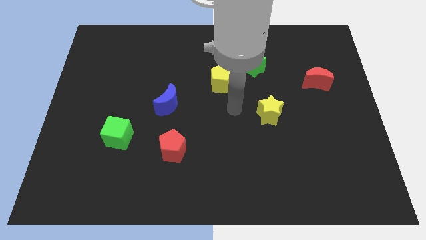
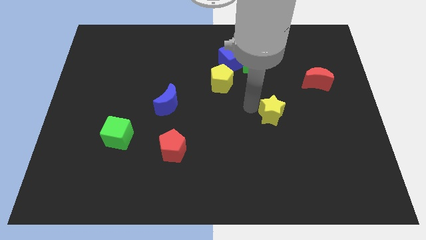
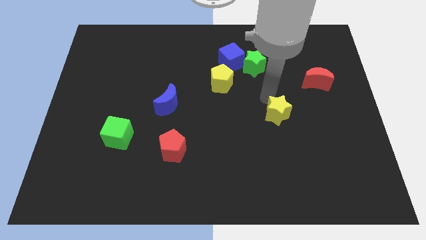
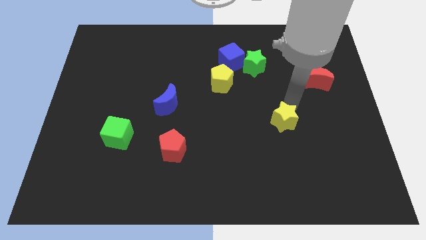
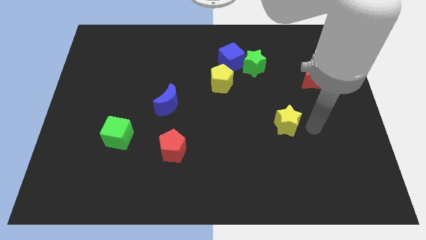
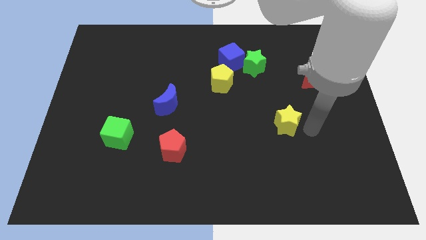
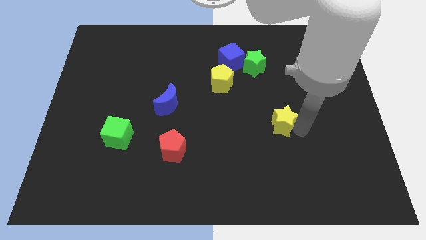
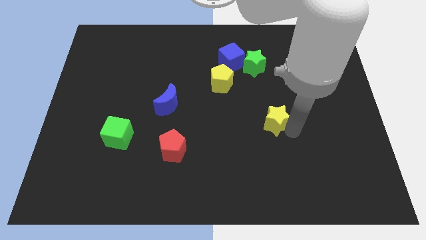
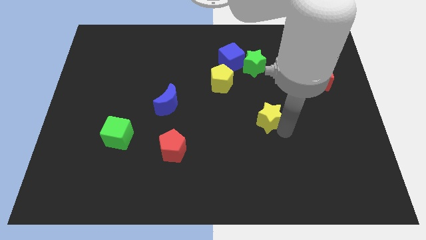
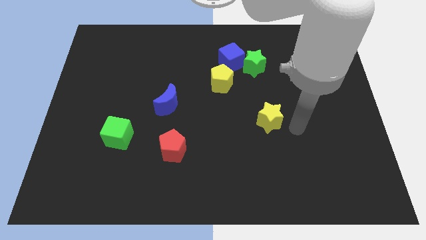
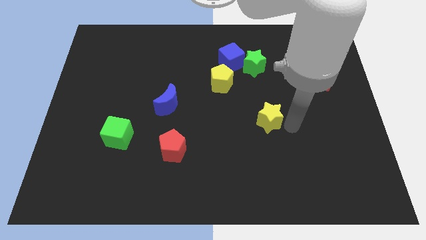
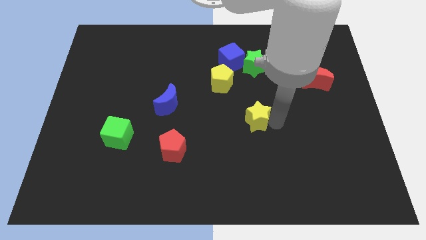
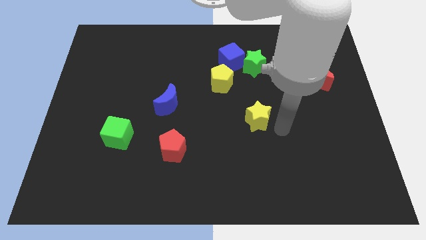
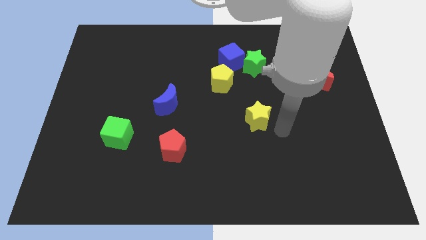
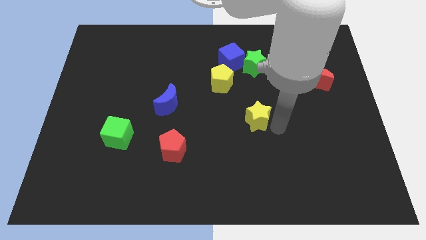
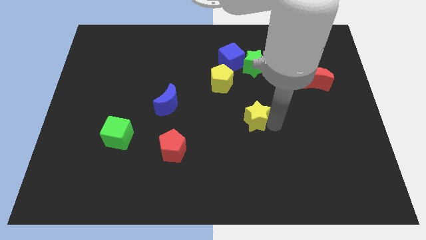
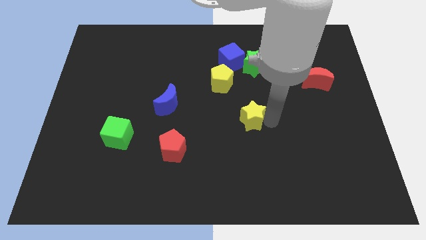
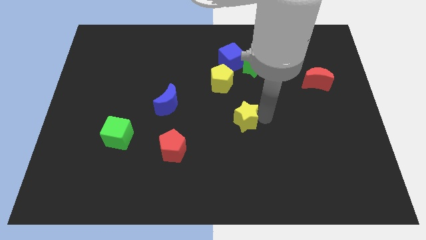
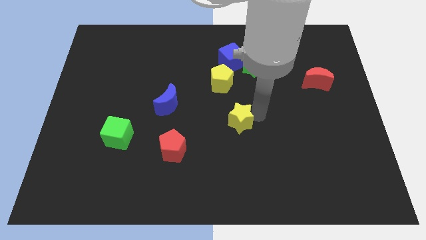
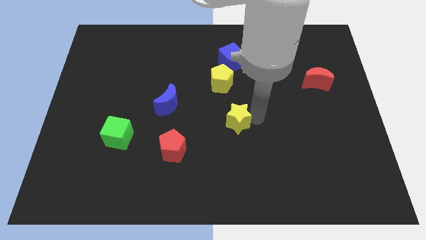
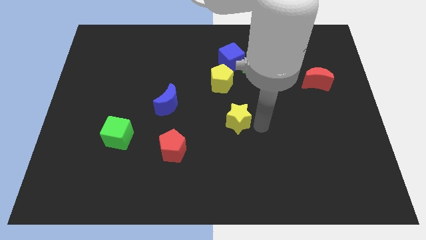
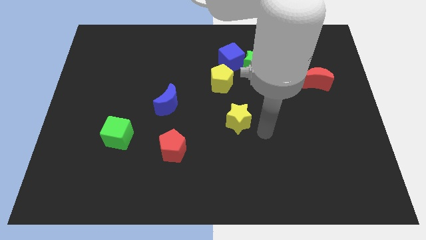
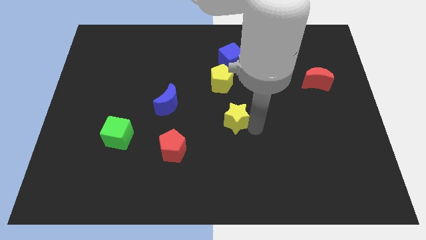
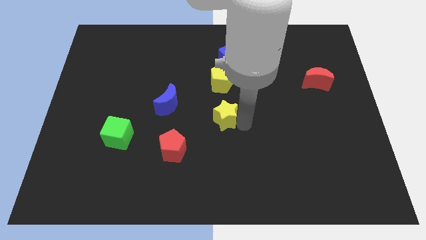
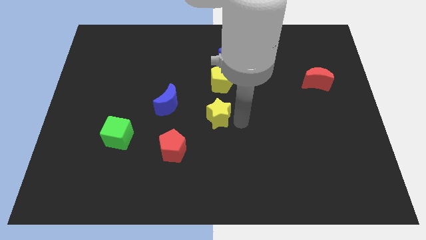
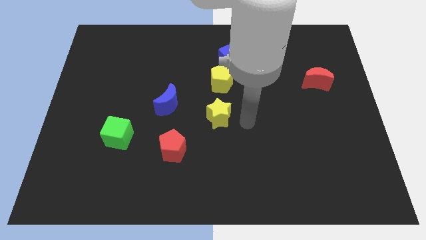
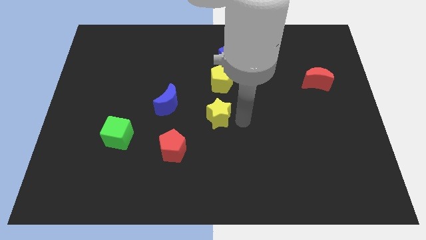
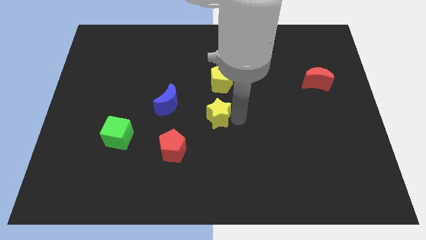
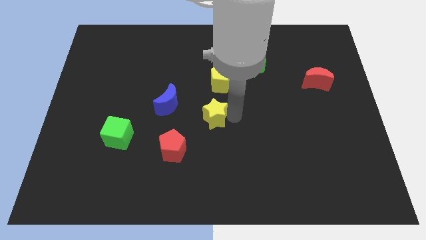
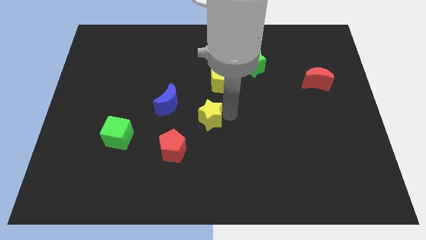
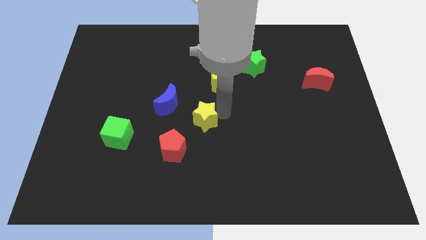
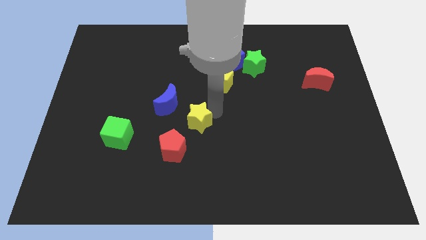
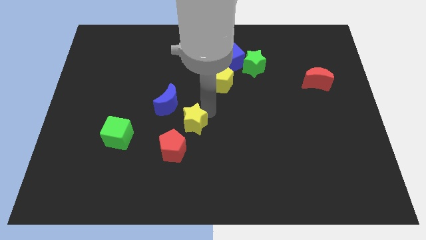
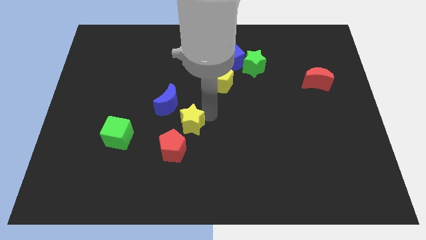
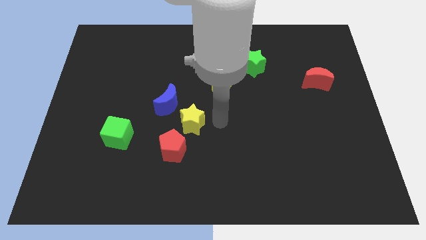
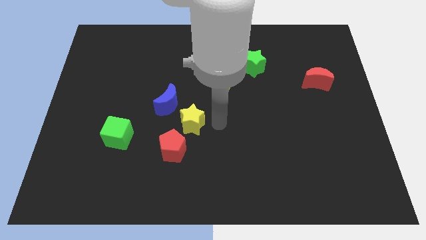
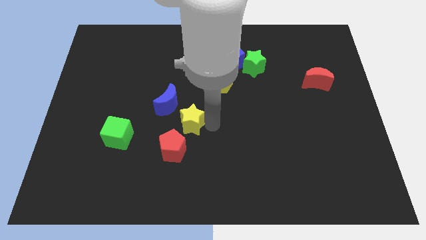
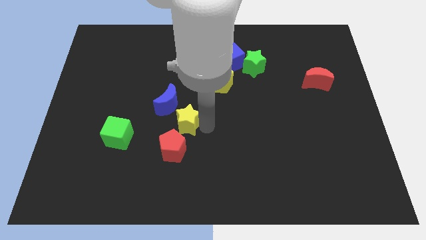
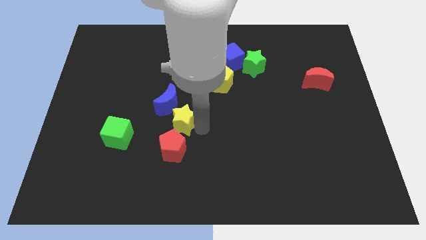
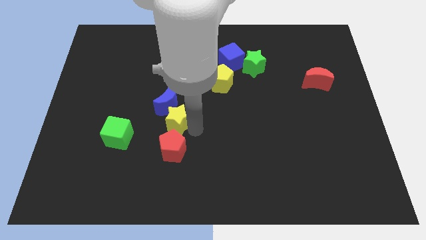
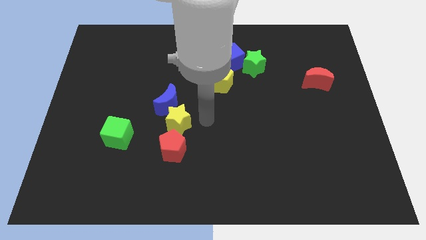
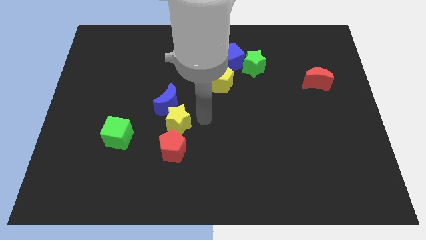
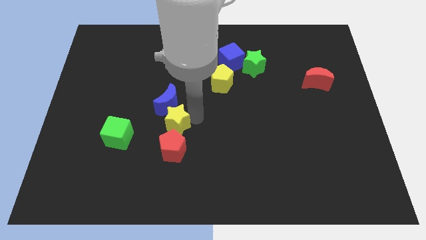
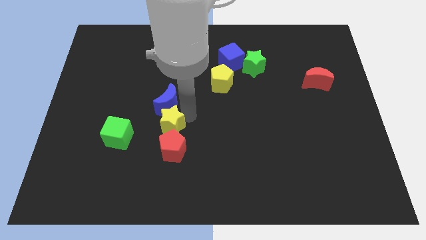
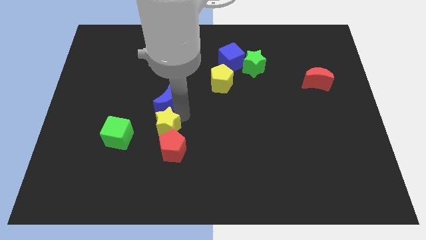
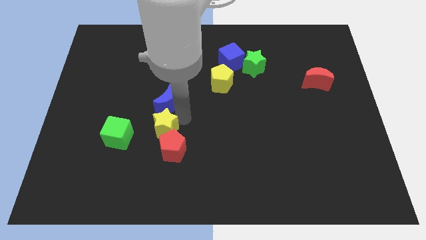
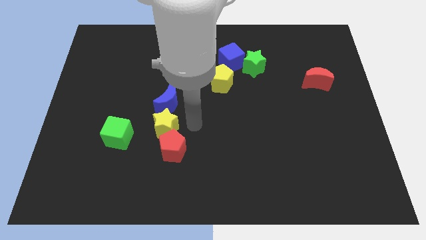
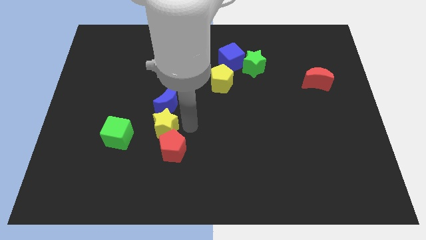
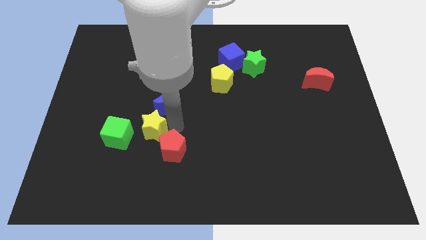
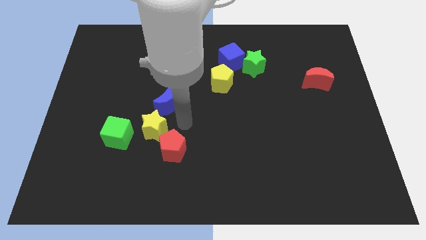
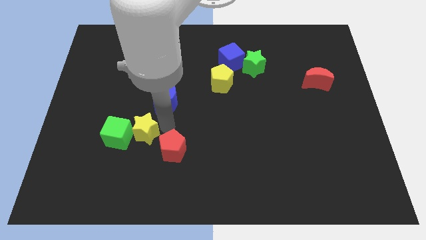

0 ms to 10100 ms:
put the yellow star towards the green cube

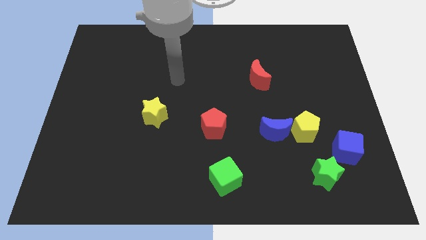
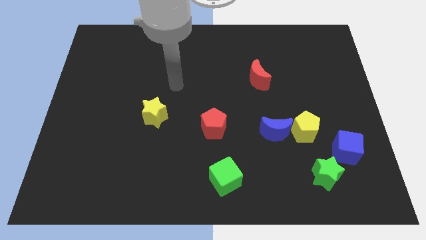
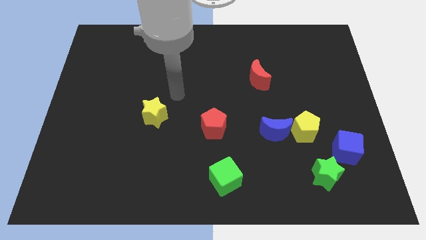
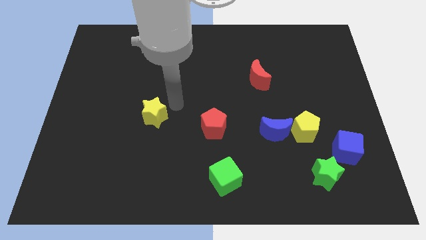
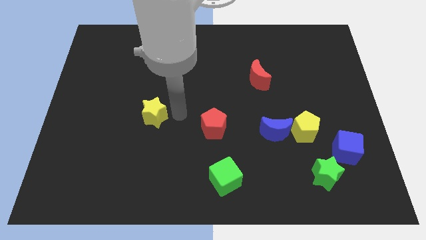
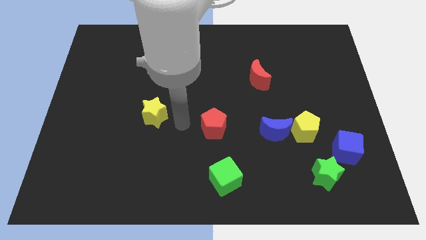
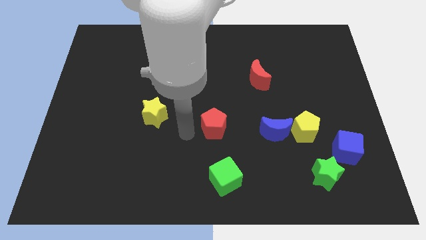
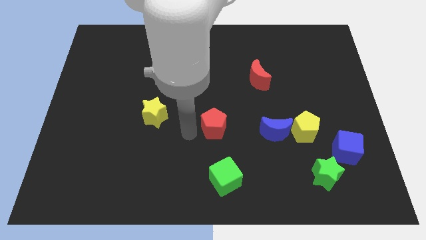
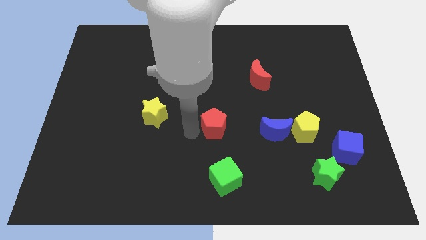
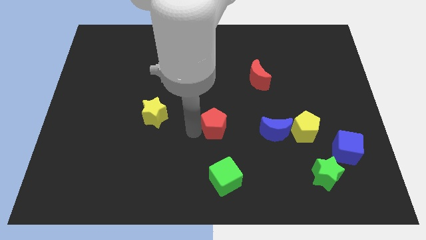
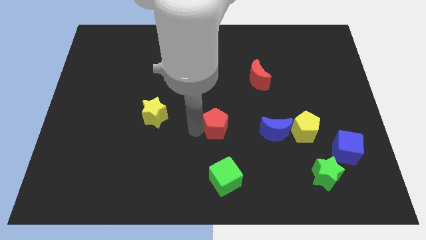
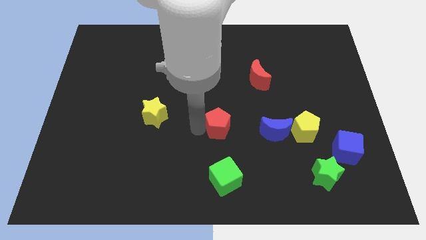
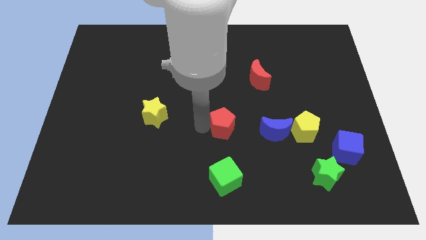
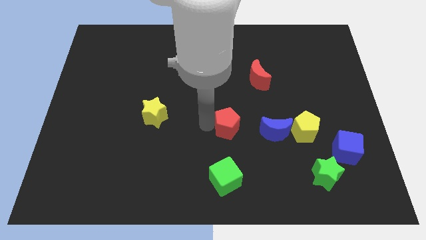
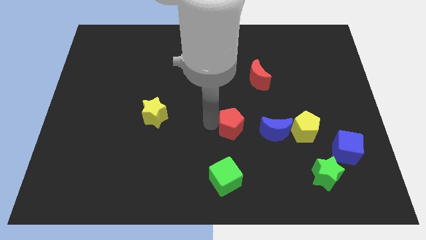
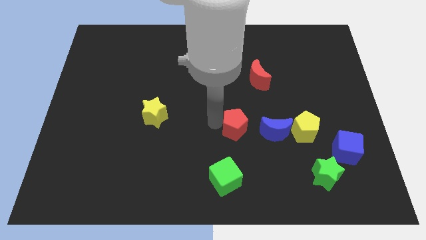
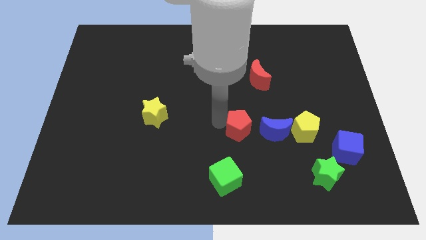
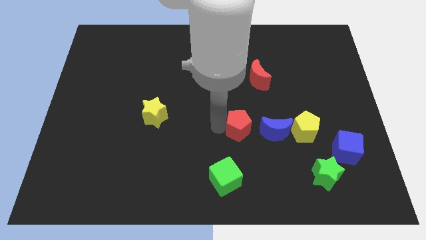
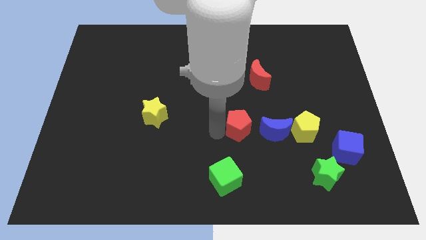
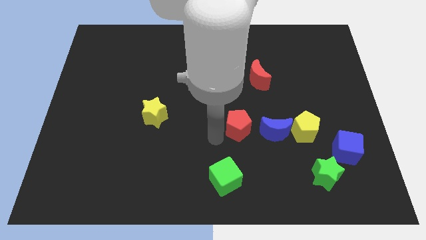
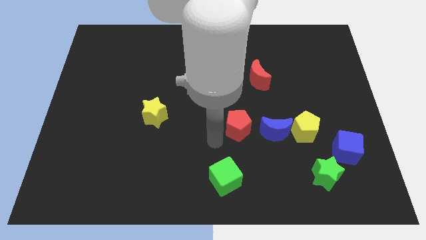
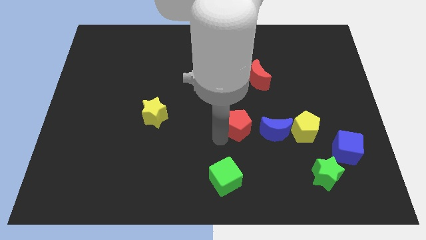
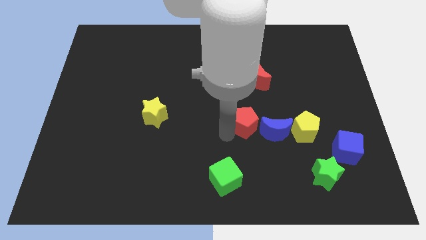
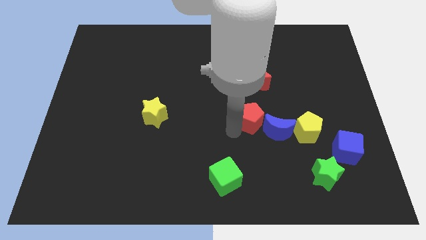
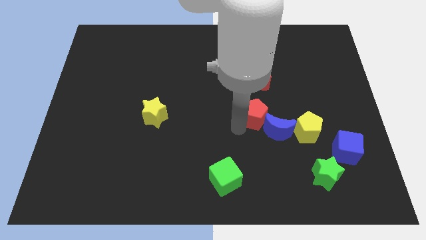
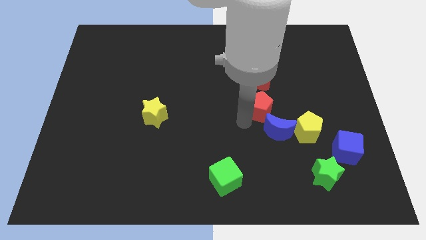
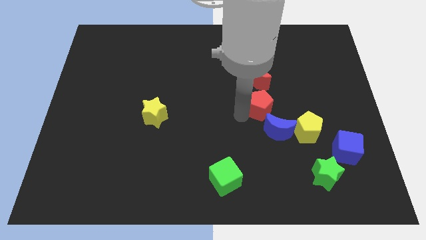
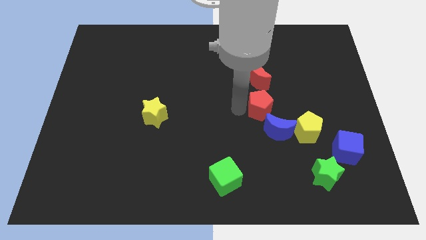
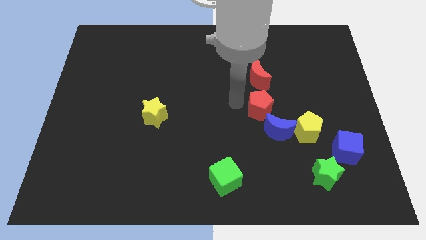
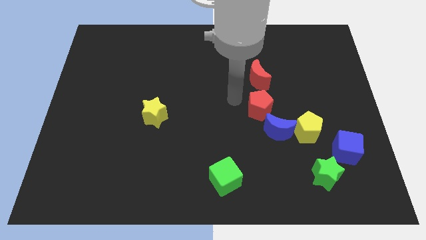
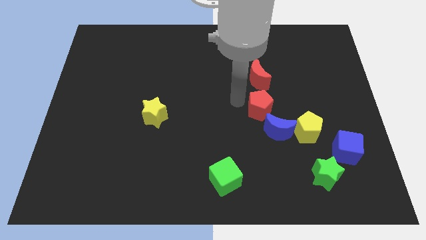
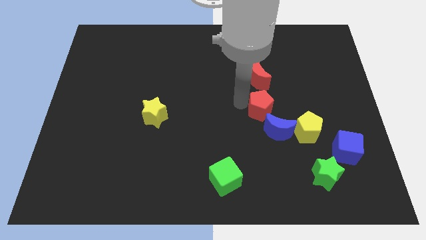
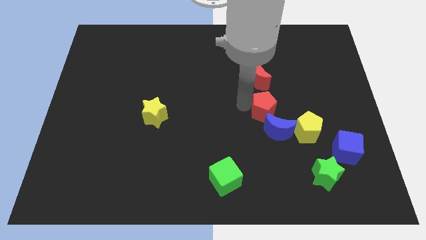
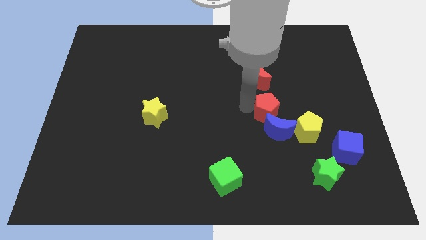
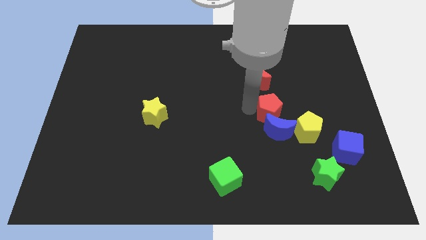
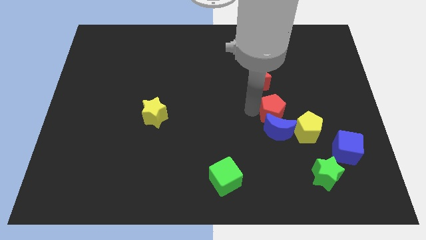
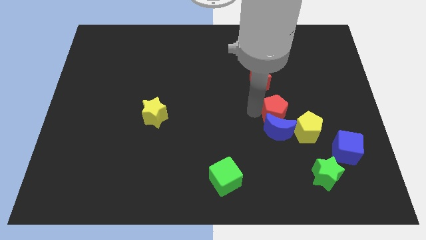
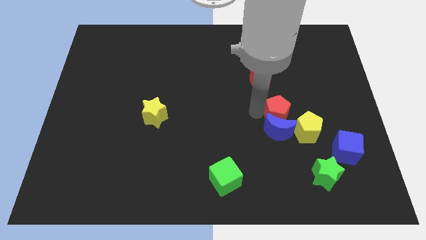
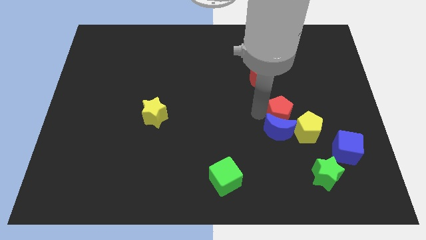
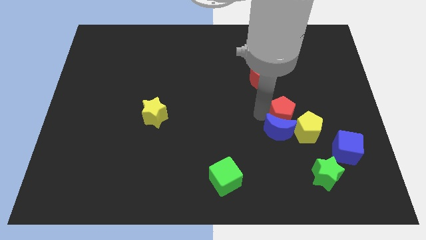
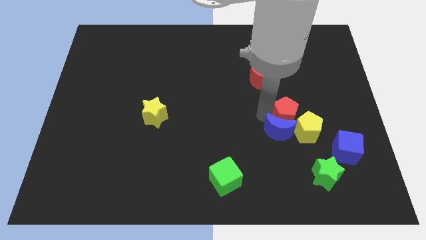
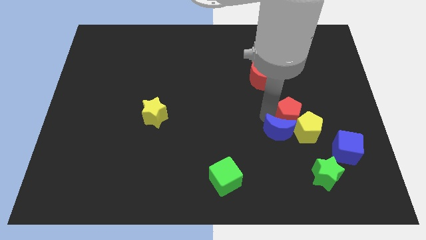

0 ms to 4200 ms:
move the red pentagon towards the yellow pentagon
